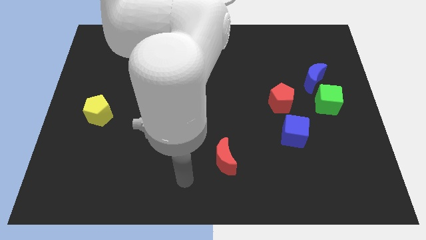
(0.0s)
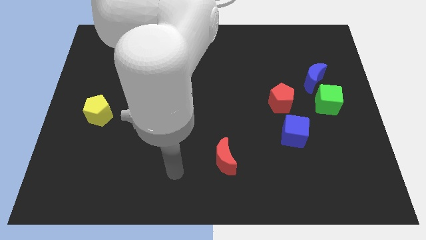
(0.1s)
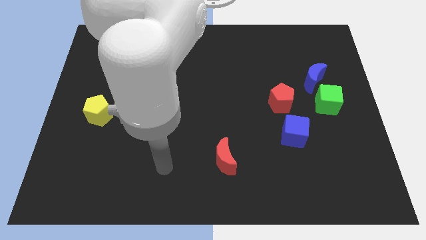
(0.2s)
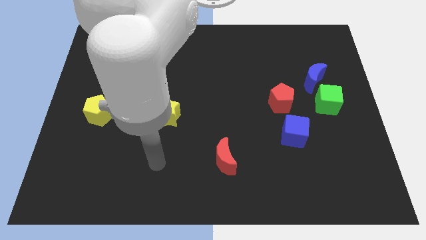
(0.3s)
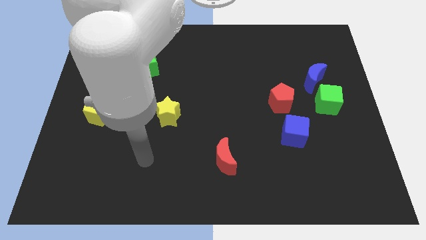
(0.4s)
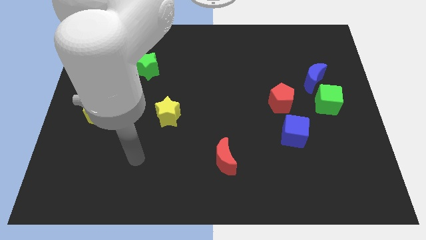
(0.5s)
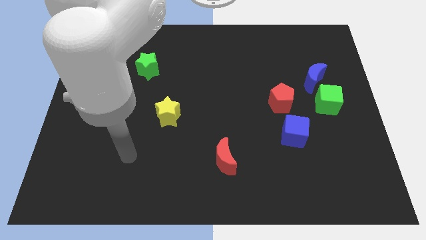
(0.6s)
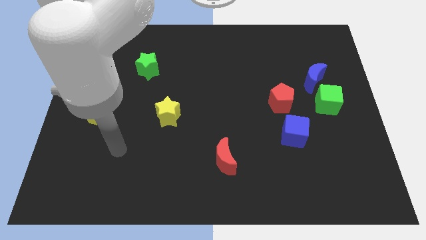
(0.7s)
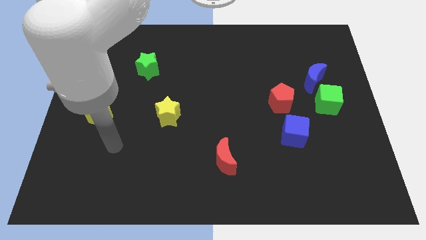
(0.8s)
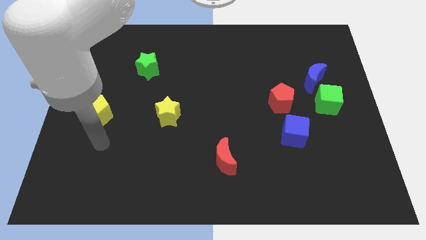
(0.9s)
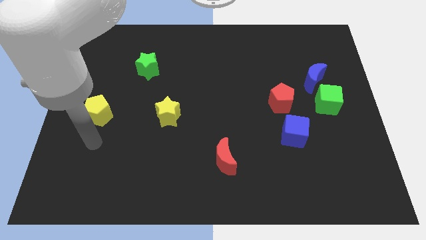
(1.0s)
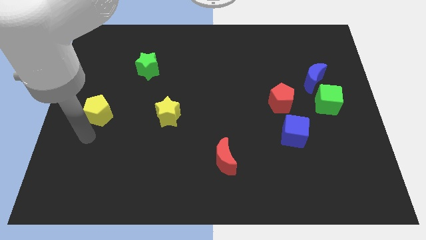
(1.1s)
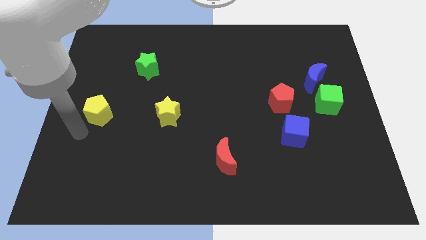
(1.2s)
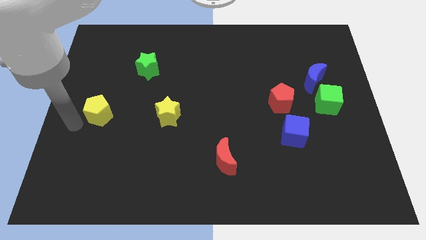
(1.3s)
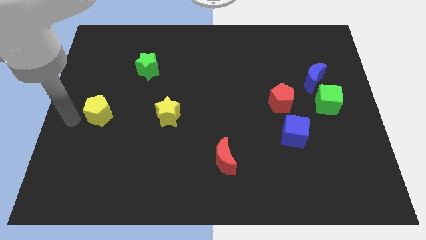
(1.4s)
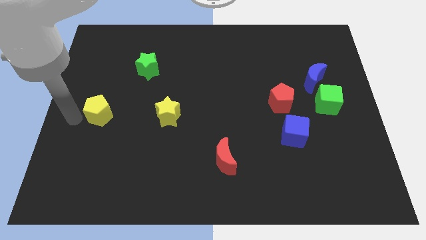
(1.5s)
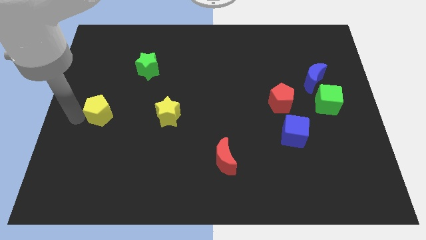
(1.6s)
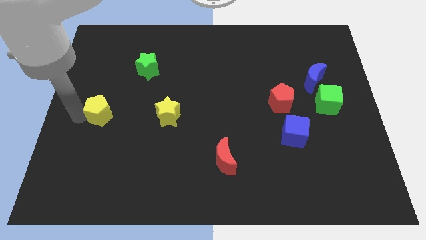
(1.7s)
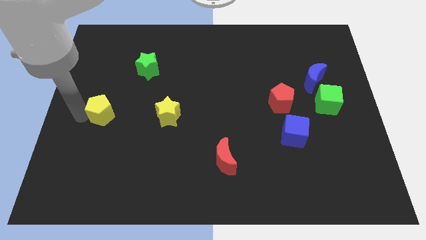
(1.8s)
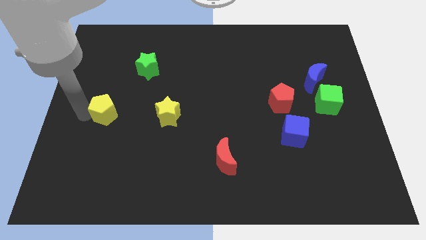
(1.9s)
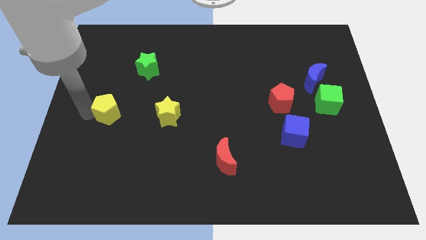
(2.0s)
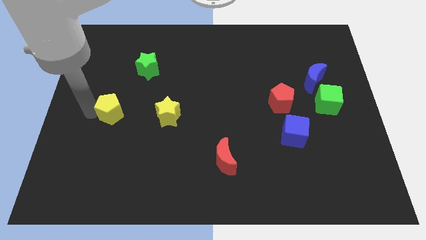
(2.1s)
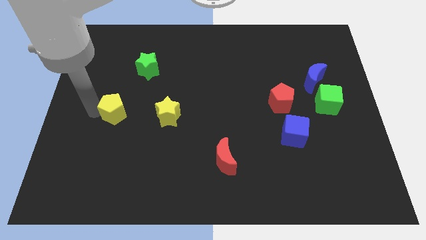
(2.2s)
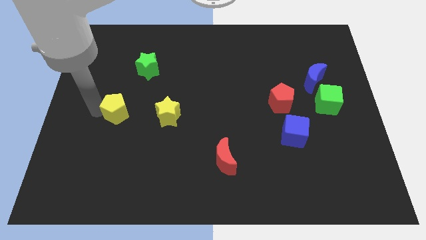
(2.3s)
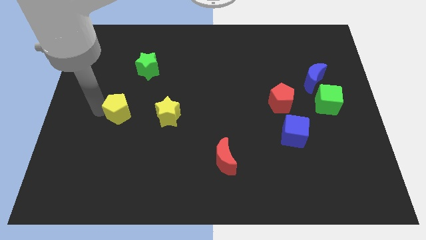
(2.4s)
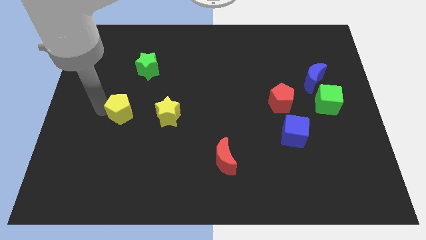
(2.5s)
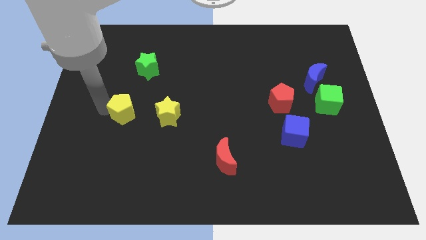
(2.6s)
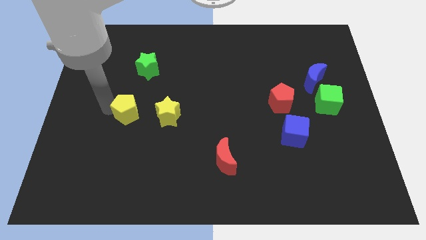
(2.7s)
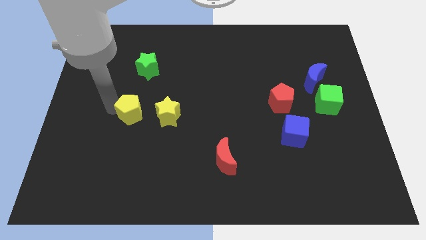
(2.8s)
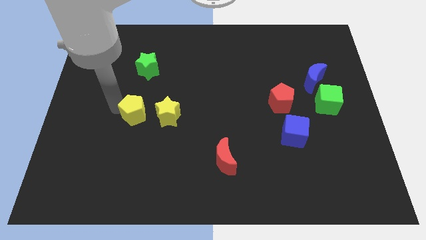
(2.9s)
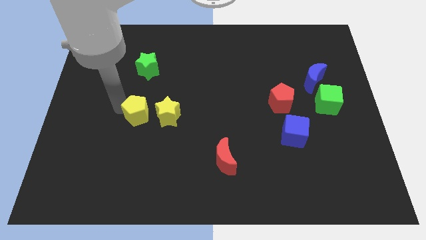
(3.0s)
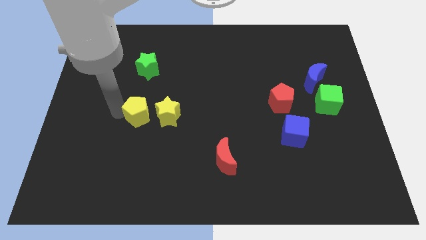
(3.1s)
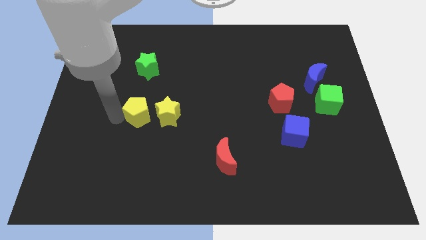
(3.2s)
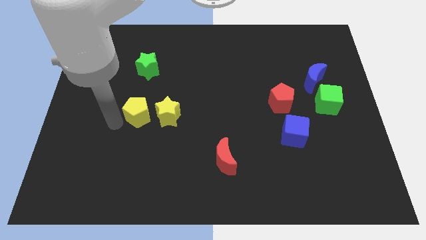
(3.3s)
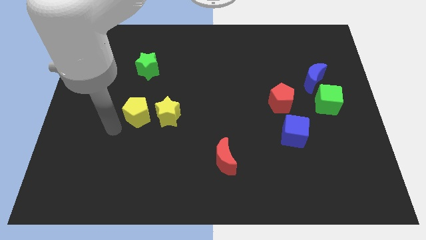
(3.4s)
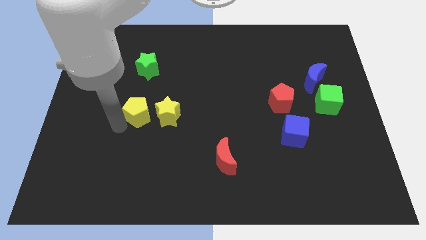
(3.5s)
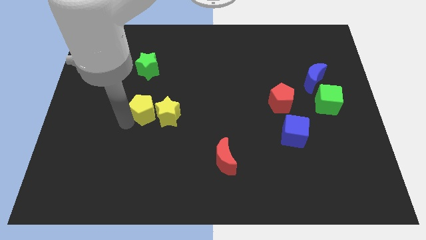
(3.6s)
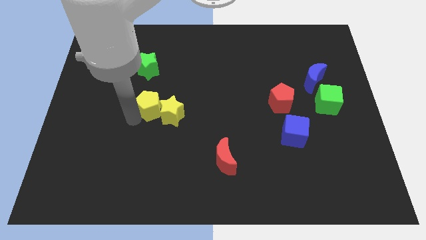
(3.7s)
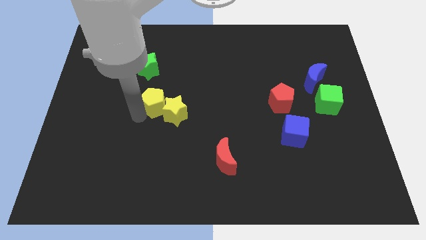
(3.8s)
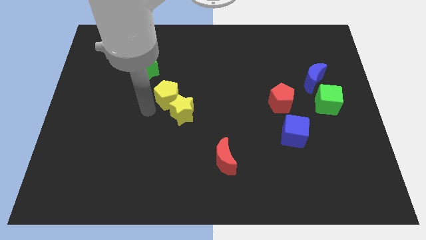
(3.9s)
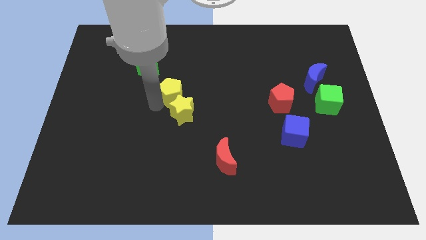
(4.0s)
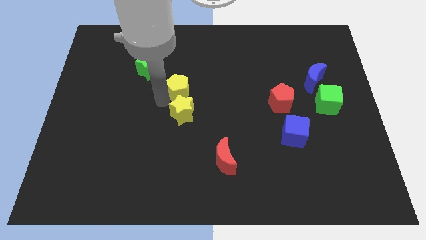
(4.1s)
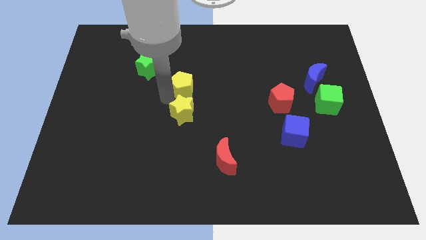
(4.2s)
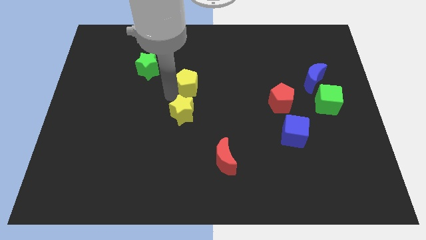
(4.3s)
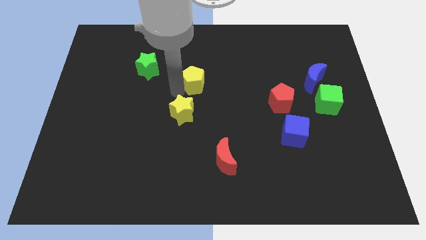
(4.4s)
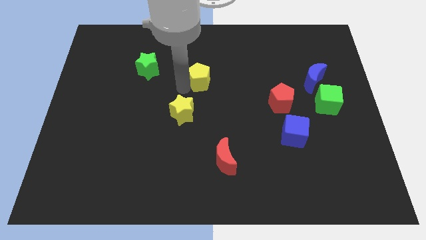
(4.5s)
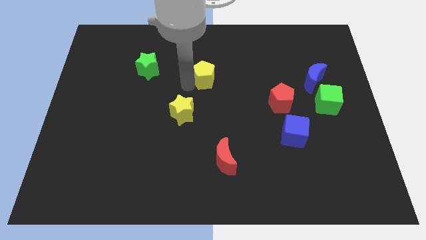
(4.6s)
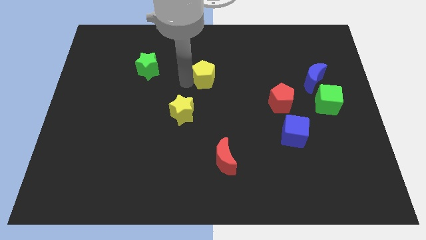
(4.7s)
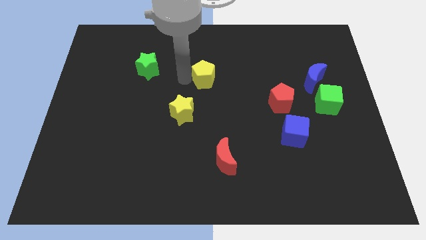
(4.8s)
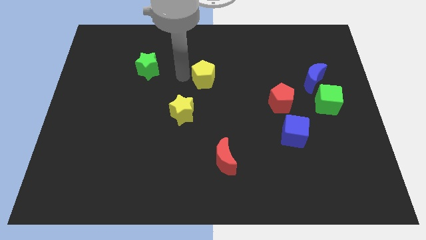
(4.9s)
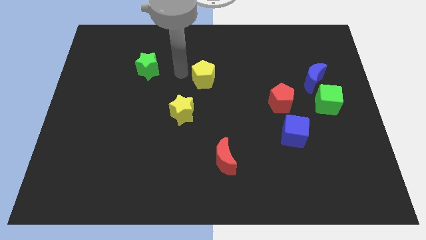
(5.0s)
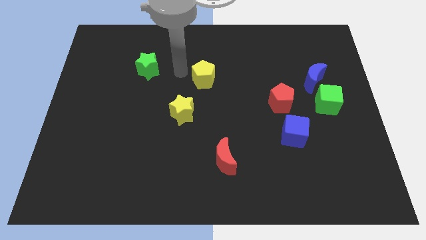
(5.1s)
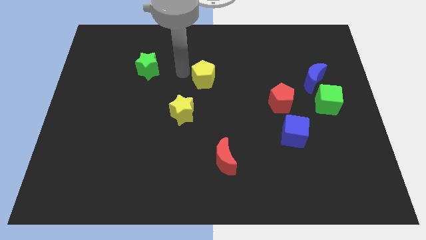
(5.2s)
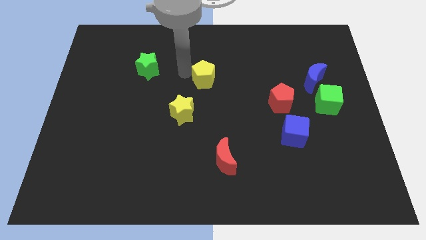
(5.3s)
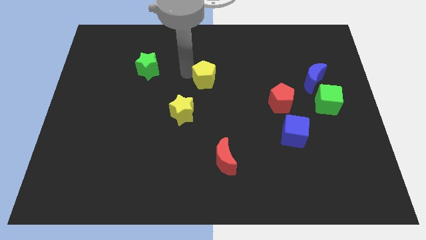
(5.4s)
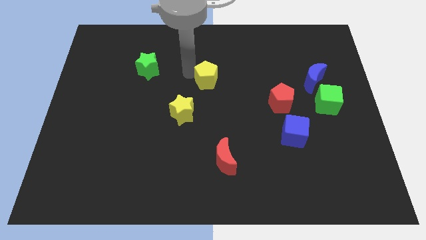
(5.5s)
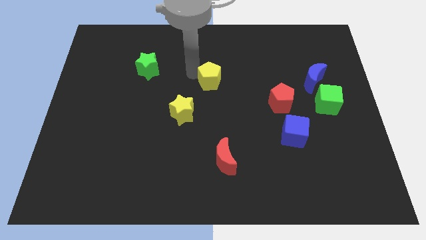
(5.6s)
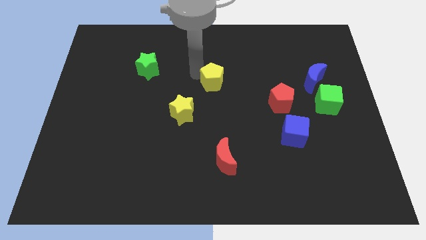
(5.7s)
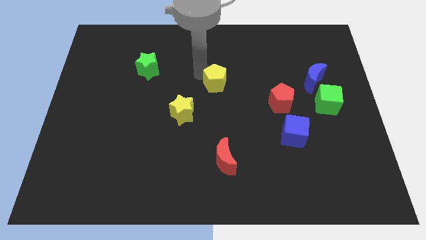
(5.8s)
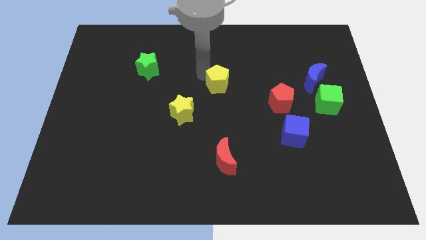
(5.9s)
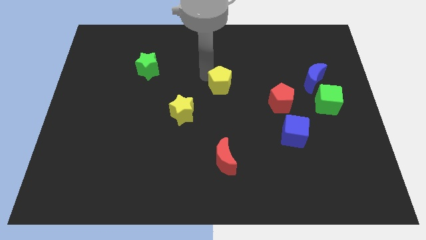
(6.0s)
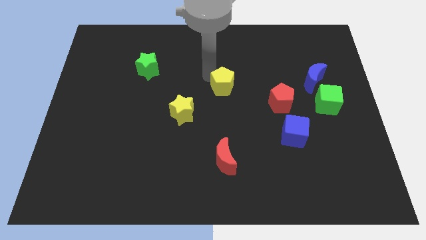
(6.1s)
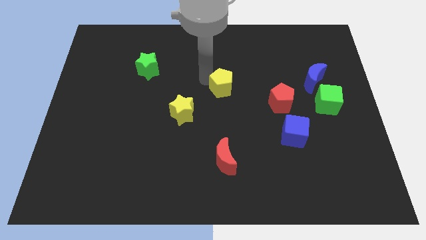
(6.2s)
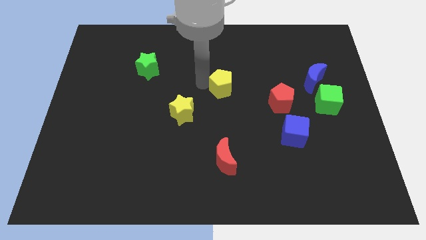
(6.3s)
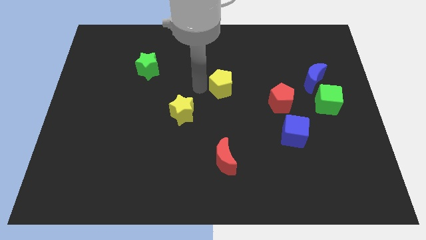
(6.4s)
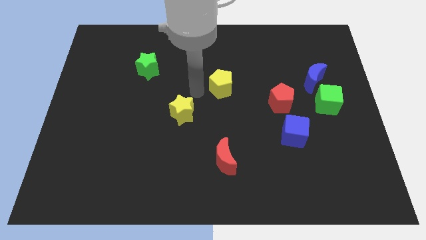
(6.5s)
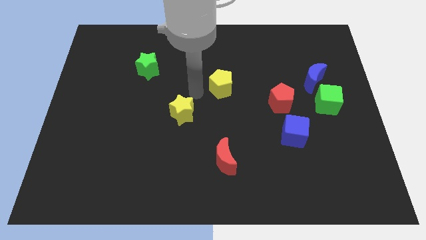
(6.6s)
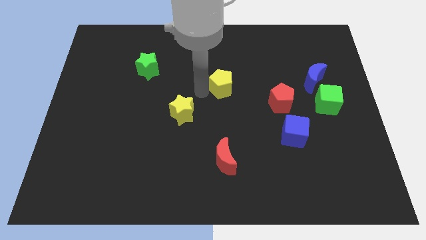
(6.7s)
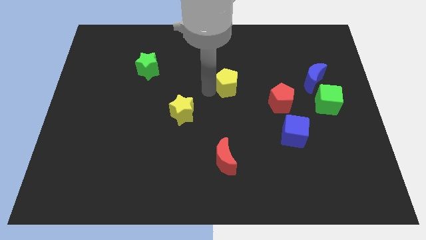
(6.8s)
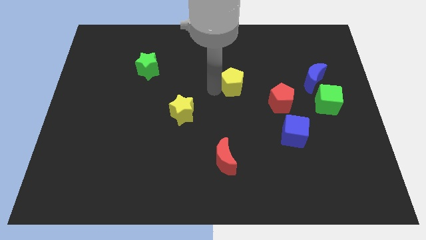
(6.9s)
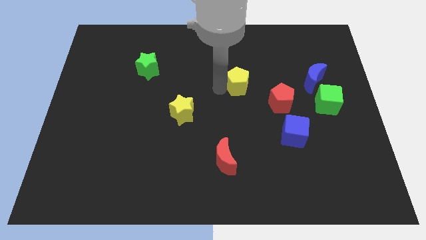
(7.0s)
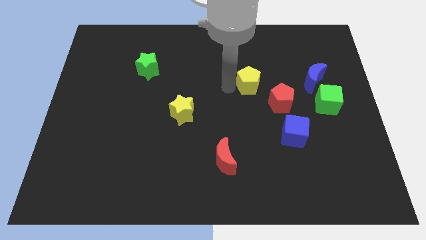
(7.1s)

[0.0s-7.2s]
put the yellow pentagon to the left side of the blue moon
